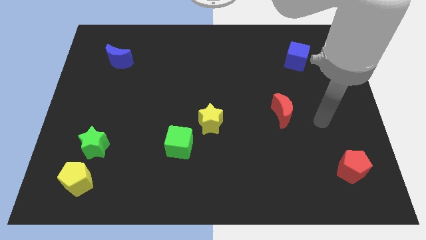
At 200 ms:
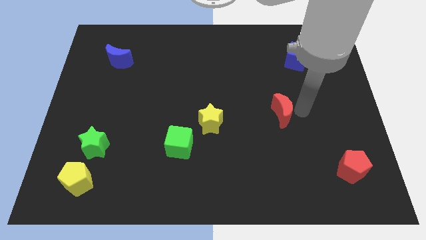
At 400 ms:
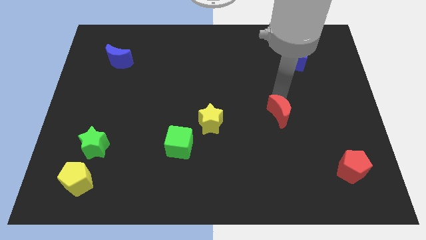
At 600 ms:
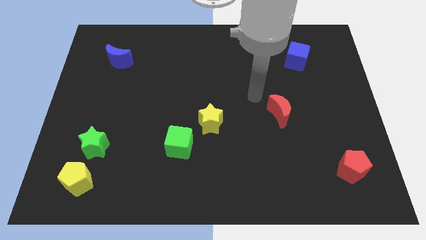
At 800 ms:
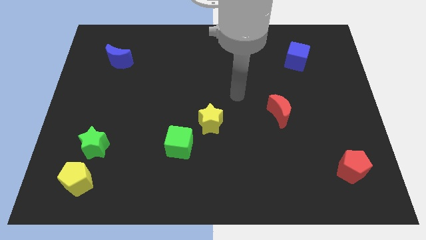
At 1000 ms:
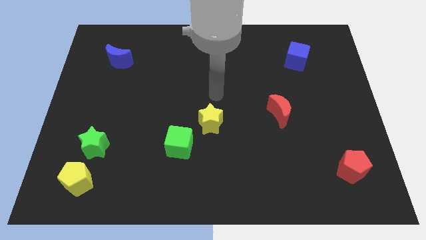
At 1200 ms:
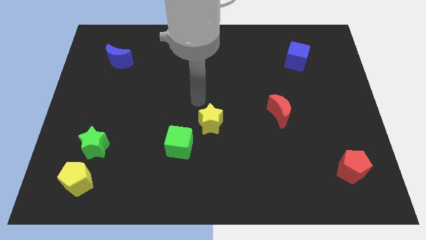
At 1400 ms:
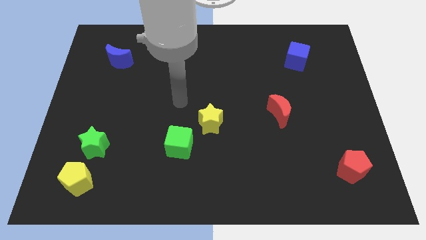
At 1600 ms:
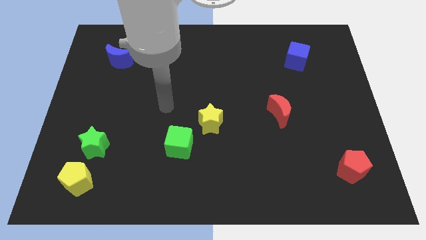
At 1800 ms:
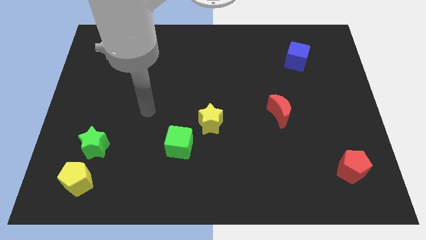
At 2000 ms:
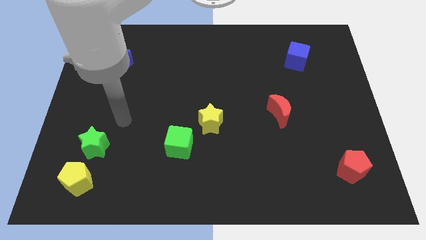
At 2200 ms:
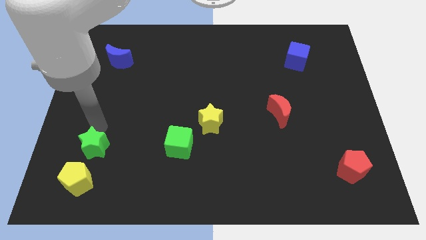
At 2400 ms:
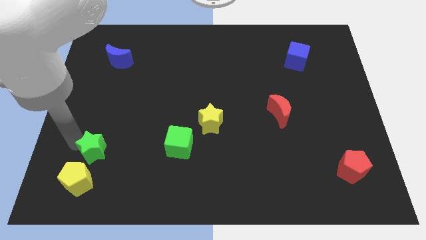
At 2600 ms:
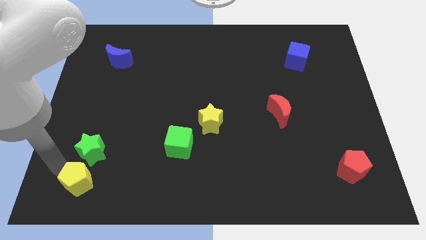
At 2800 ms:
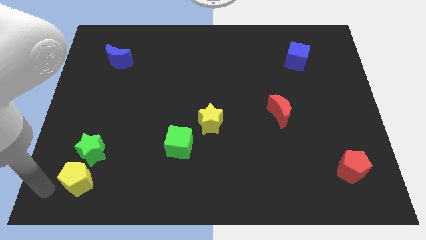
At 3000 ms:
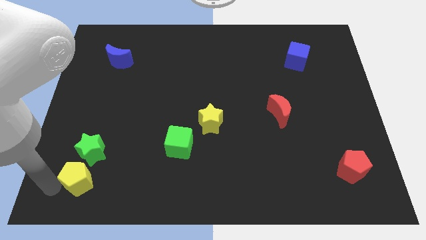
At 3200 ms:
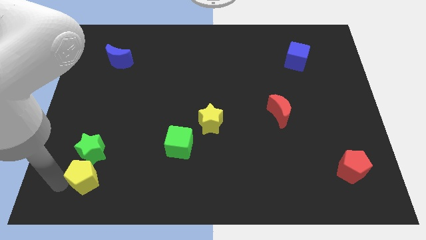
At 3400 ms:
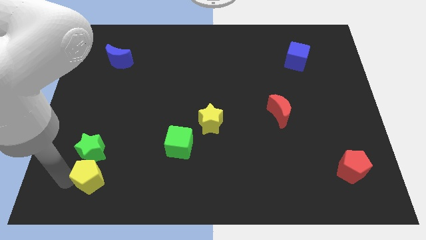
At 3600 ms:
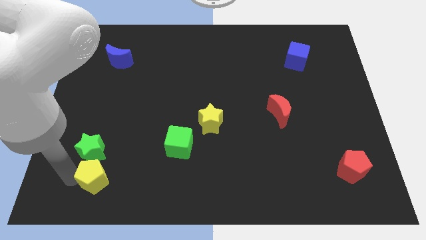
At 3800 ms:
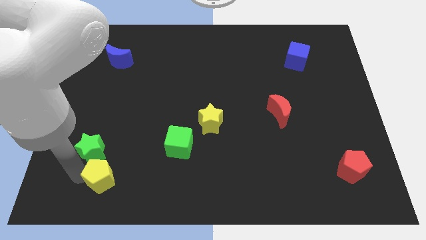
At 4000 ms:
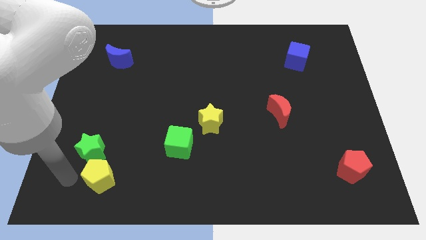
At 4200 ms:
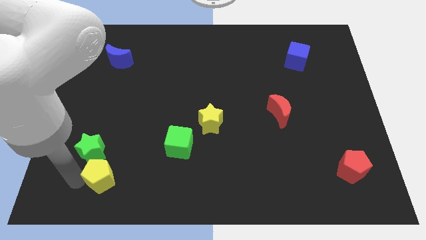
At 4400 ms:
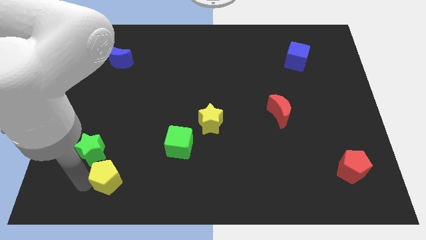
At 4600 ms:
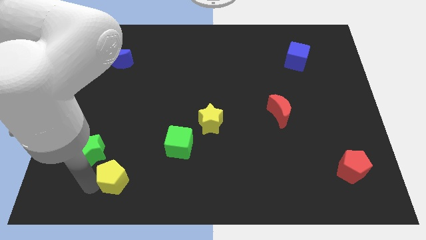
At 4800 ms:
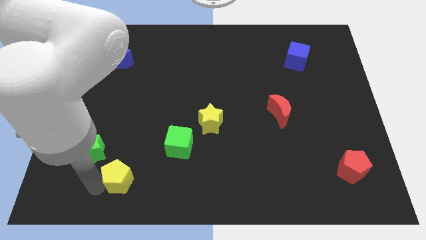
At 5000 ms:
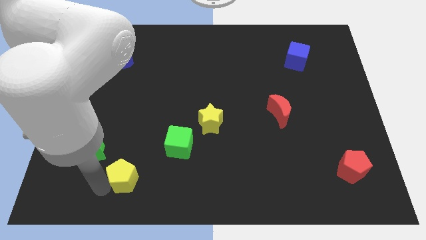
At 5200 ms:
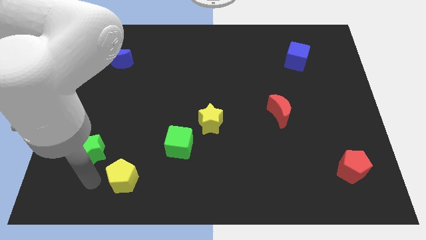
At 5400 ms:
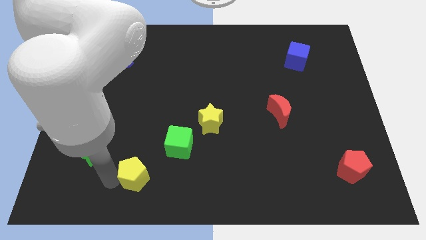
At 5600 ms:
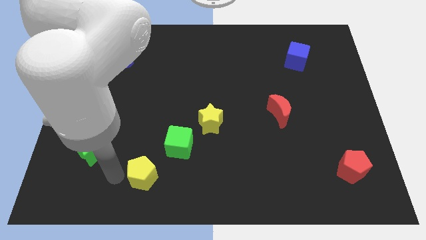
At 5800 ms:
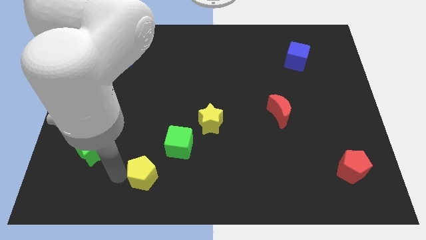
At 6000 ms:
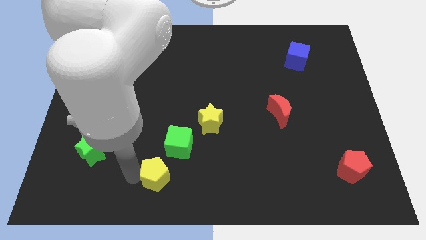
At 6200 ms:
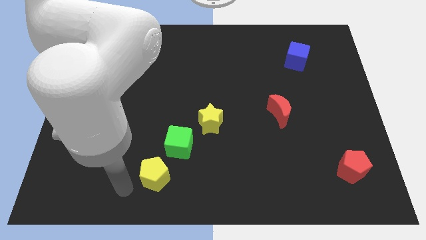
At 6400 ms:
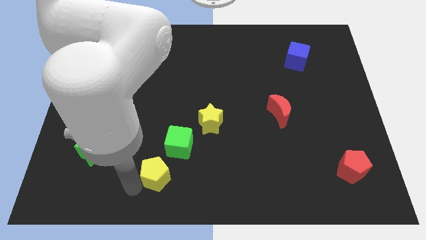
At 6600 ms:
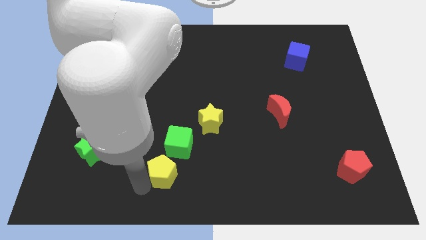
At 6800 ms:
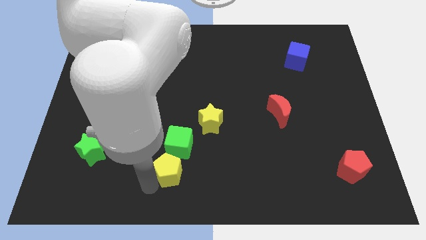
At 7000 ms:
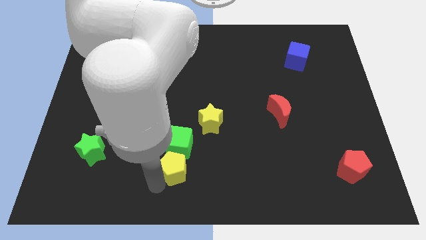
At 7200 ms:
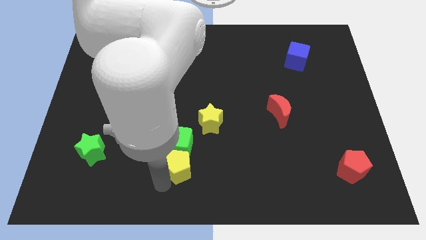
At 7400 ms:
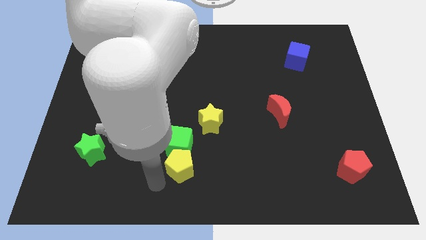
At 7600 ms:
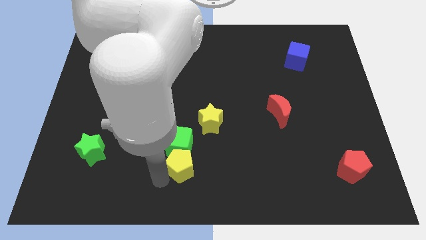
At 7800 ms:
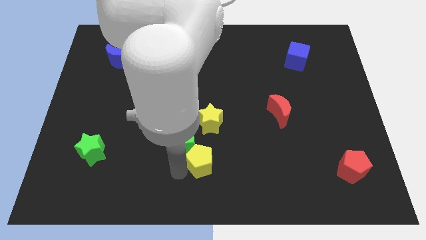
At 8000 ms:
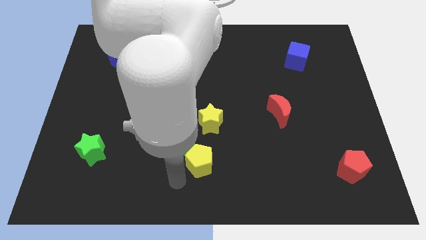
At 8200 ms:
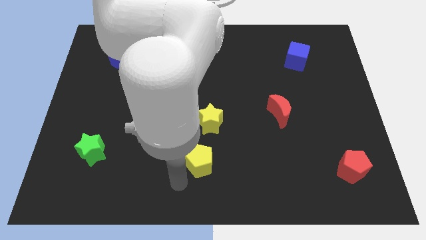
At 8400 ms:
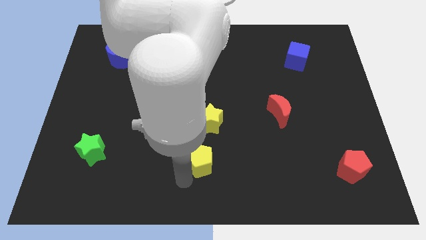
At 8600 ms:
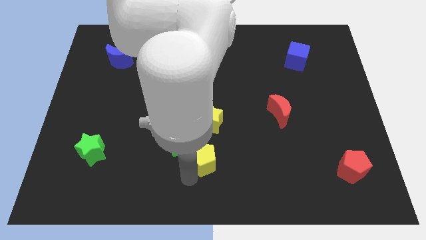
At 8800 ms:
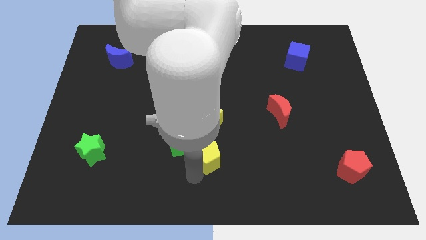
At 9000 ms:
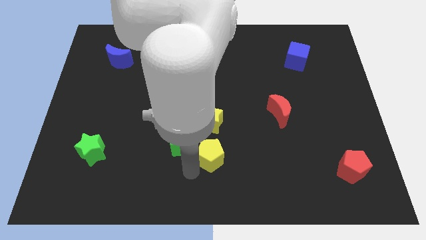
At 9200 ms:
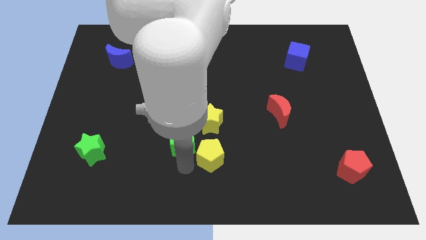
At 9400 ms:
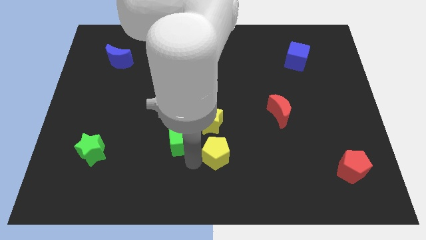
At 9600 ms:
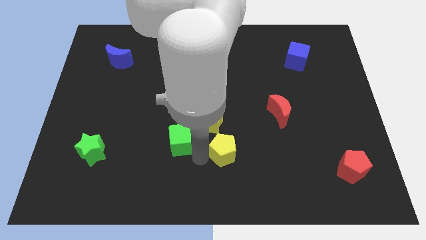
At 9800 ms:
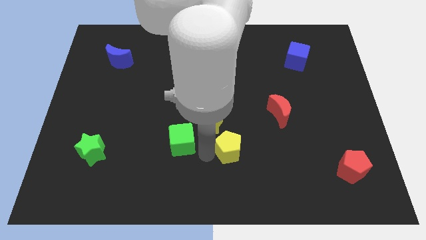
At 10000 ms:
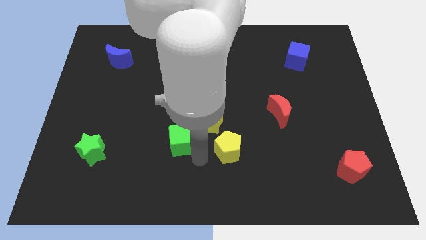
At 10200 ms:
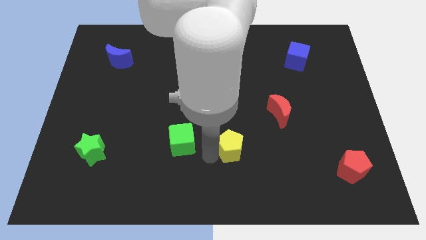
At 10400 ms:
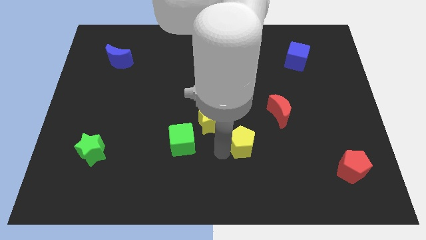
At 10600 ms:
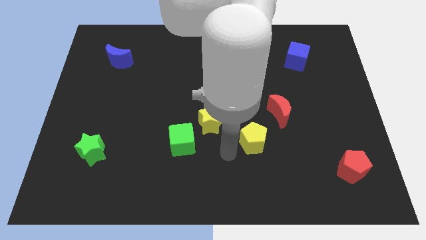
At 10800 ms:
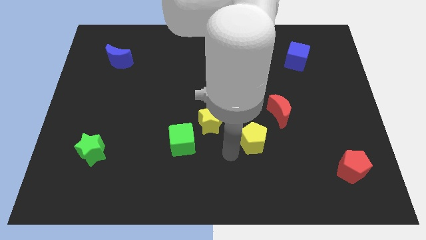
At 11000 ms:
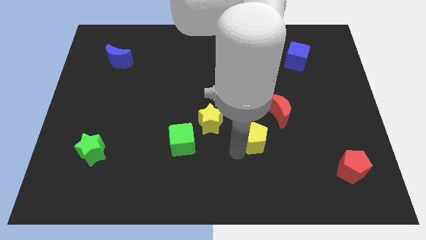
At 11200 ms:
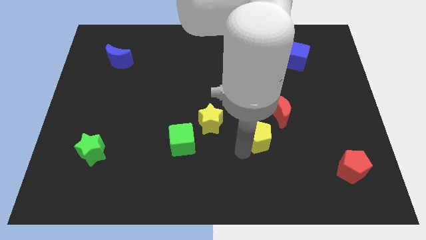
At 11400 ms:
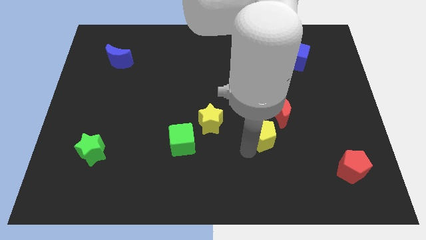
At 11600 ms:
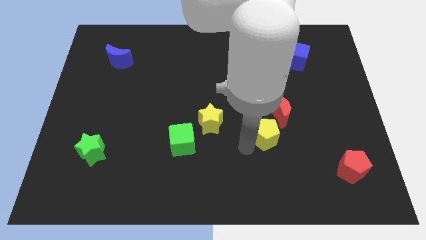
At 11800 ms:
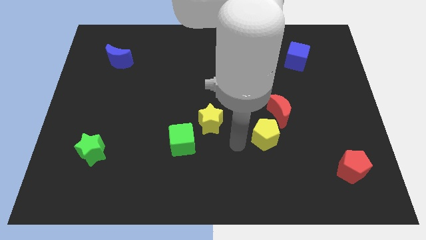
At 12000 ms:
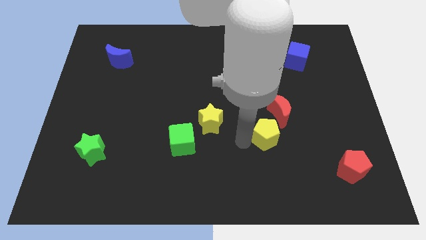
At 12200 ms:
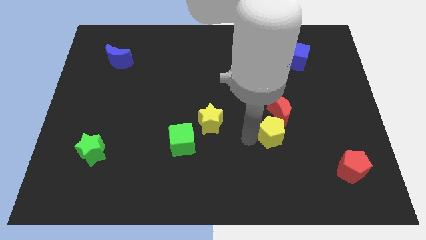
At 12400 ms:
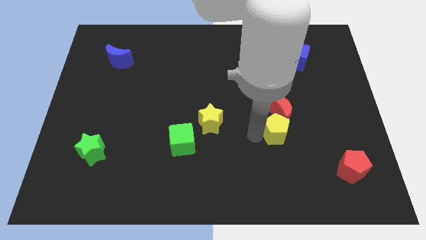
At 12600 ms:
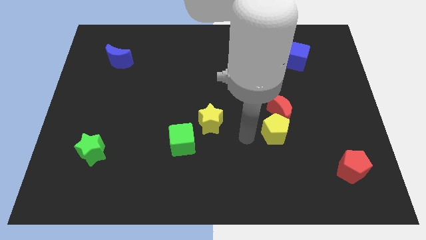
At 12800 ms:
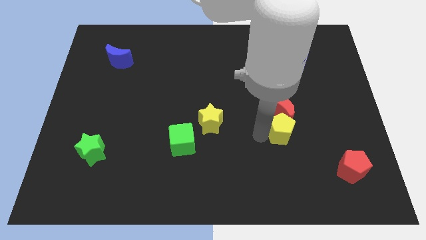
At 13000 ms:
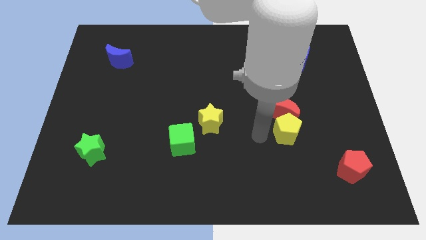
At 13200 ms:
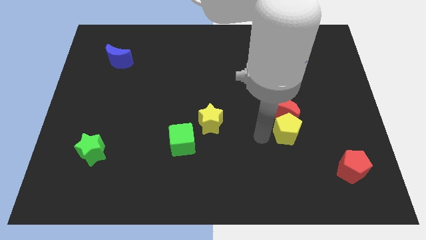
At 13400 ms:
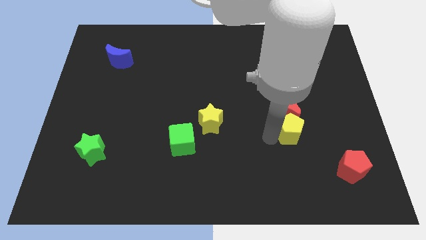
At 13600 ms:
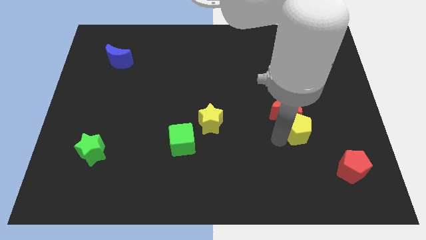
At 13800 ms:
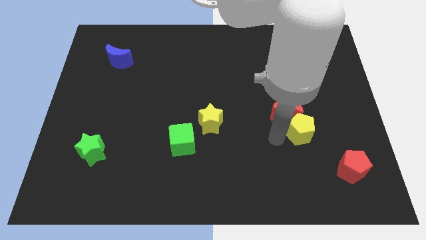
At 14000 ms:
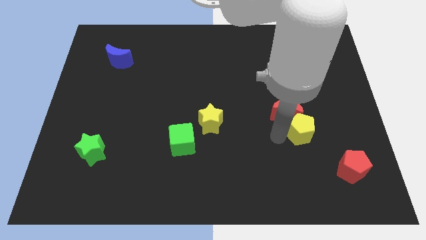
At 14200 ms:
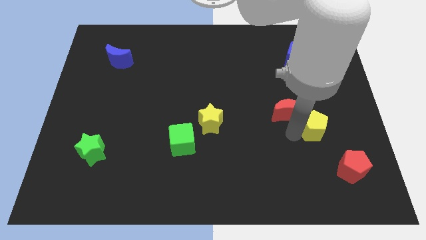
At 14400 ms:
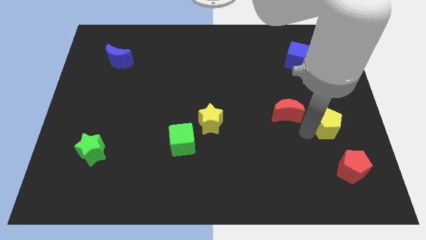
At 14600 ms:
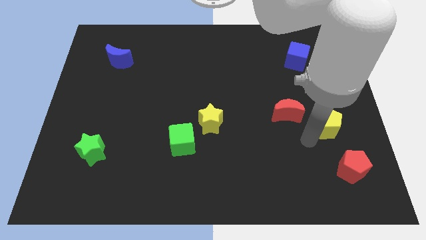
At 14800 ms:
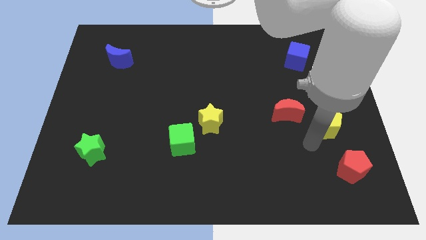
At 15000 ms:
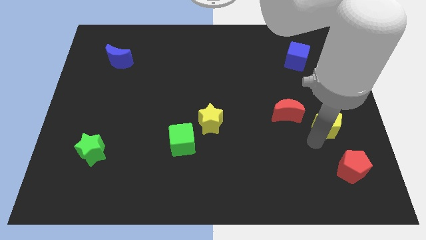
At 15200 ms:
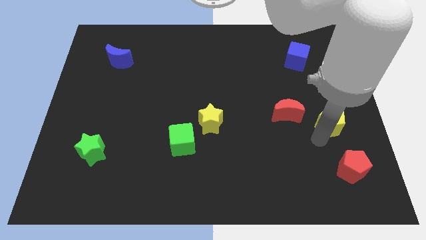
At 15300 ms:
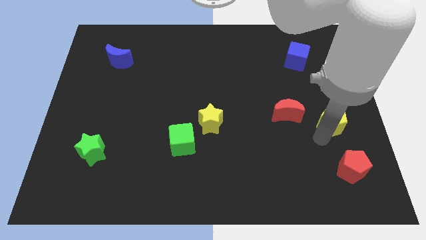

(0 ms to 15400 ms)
push the yellow pentagon to the right side of the board
